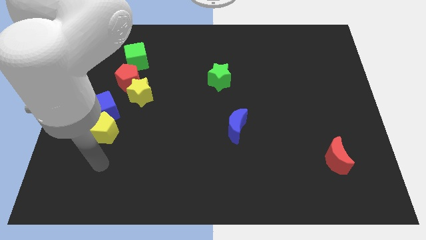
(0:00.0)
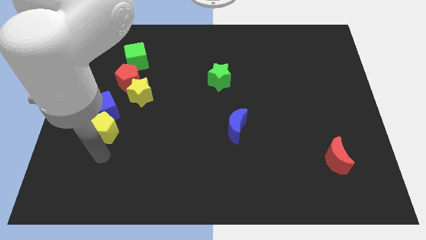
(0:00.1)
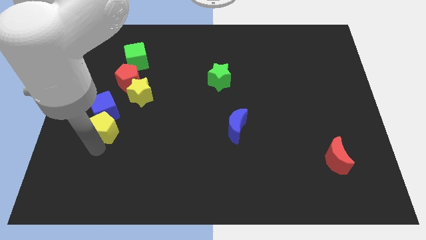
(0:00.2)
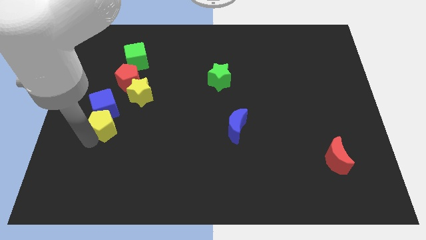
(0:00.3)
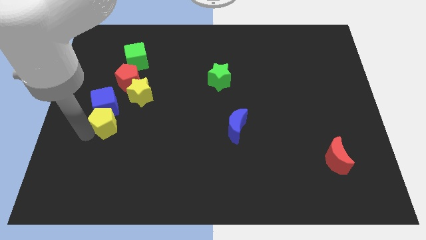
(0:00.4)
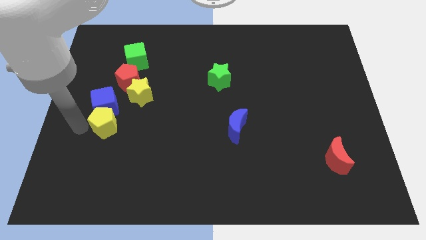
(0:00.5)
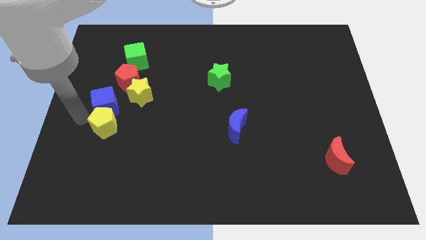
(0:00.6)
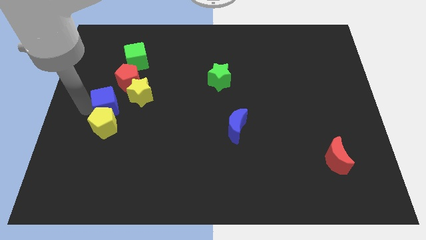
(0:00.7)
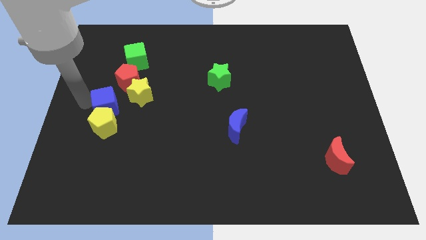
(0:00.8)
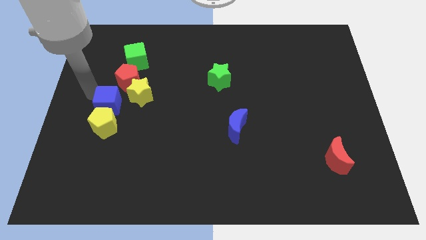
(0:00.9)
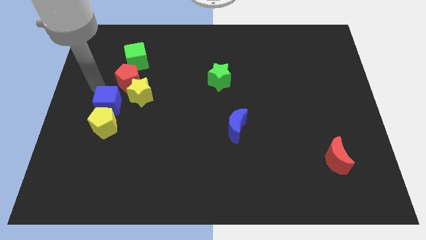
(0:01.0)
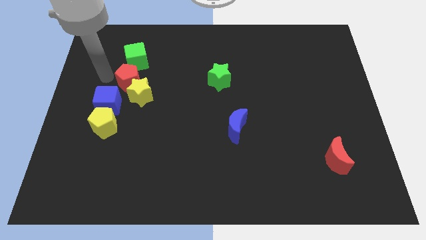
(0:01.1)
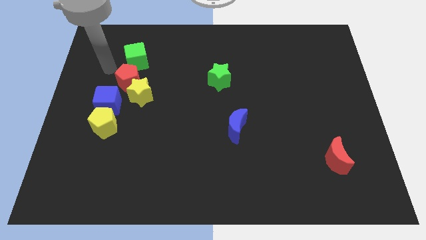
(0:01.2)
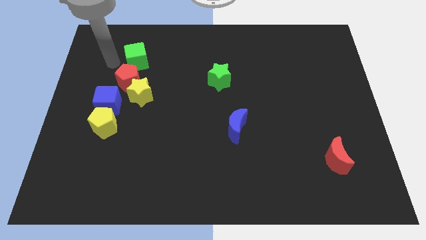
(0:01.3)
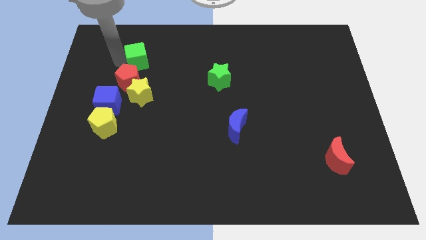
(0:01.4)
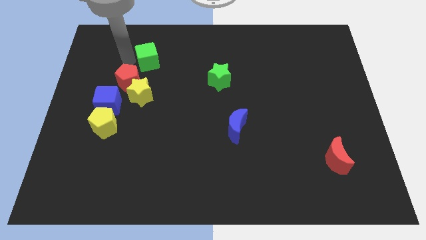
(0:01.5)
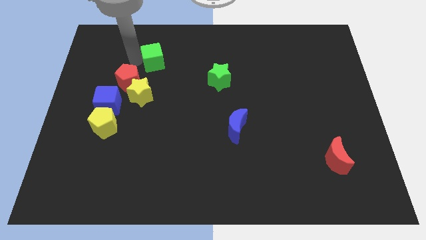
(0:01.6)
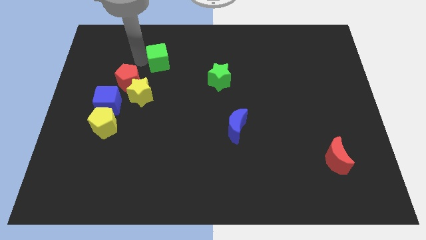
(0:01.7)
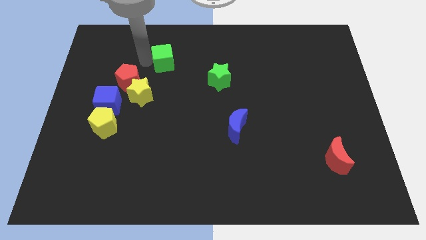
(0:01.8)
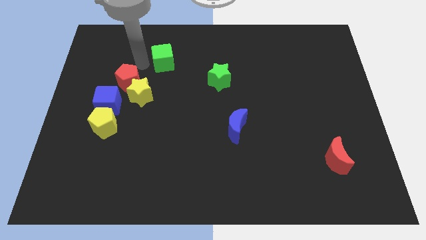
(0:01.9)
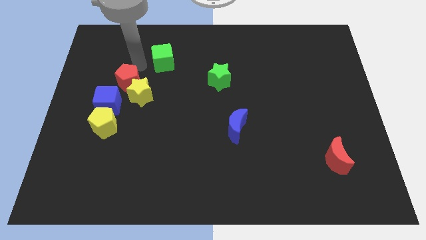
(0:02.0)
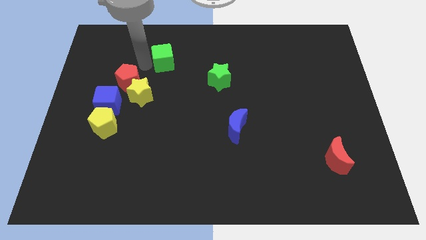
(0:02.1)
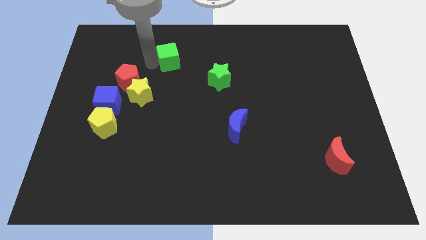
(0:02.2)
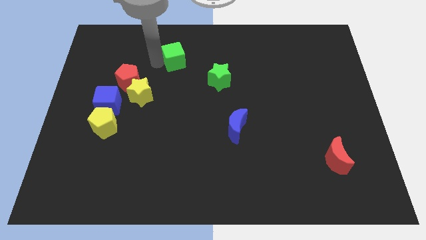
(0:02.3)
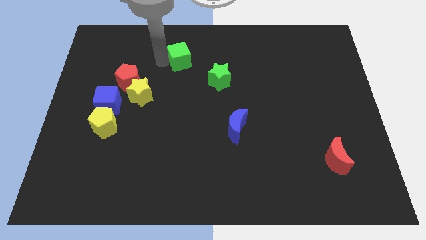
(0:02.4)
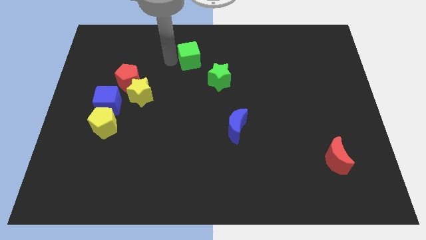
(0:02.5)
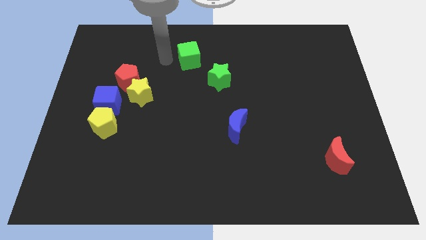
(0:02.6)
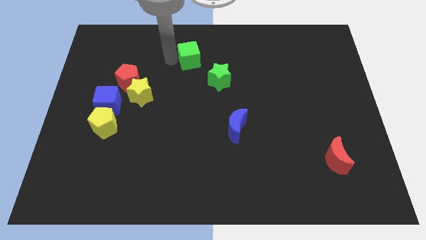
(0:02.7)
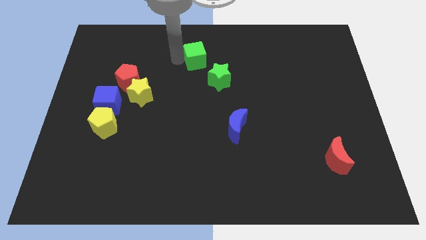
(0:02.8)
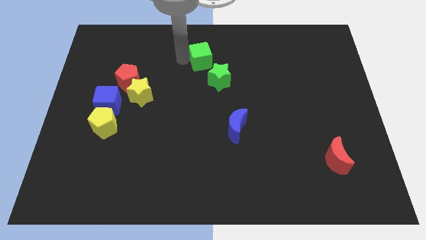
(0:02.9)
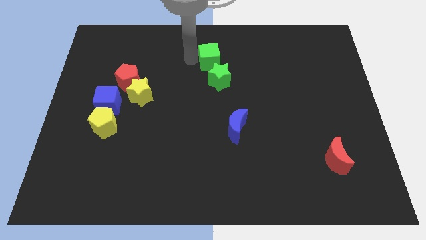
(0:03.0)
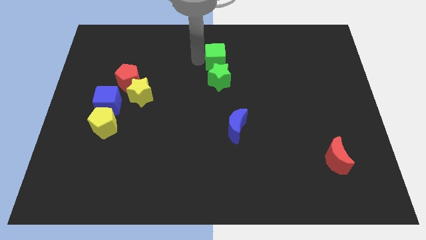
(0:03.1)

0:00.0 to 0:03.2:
push the green cube to the right

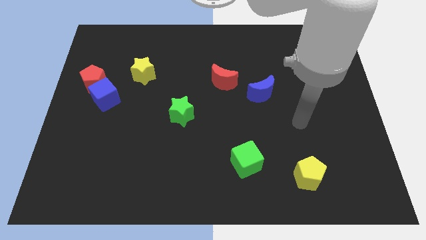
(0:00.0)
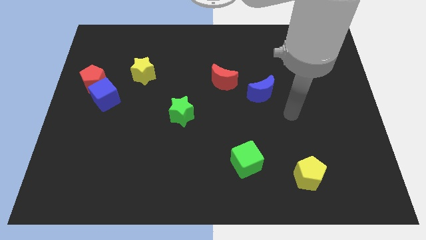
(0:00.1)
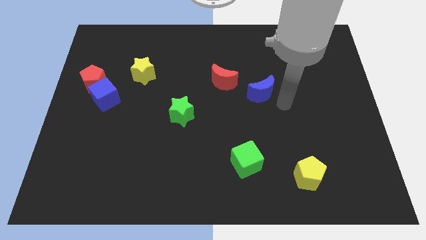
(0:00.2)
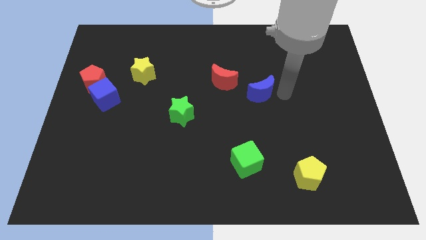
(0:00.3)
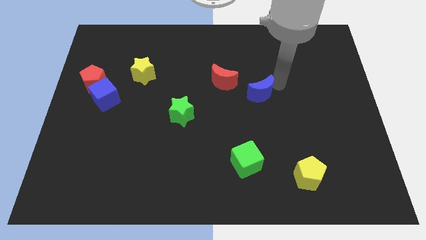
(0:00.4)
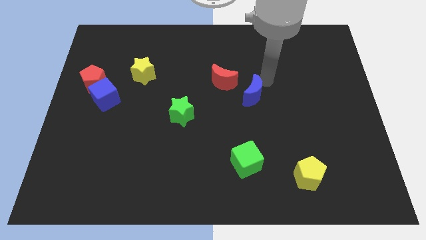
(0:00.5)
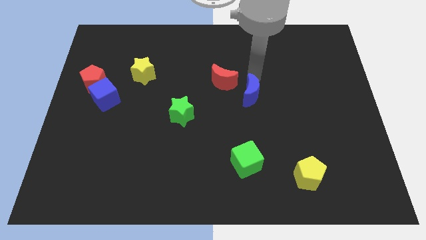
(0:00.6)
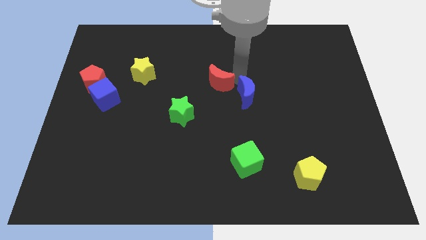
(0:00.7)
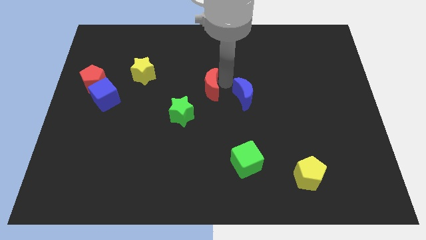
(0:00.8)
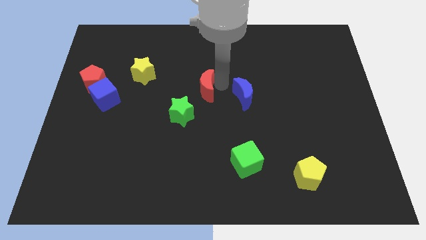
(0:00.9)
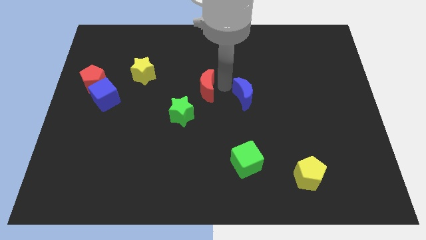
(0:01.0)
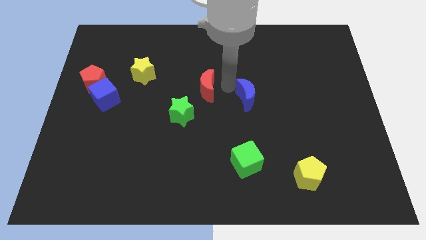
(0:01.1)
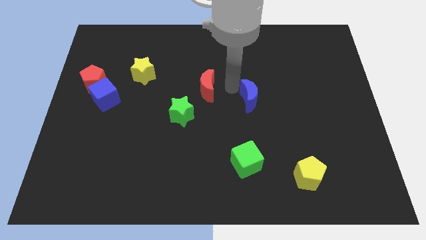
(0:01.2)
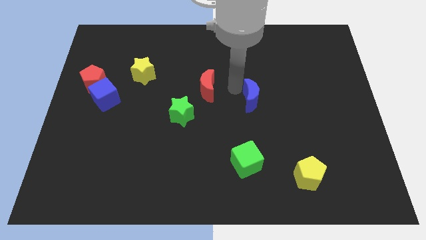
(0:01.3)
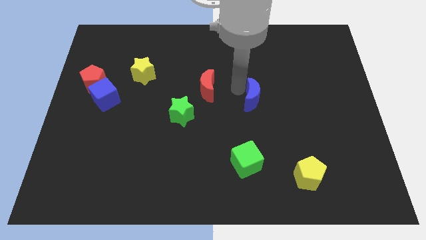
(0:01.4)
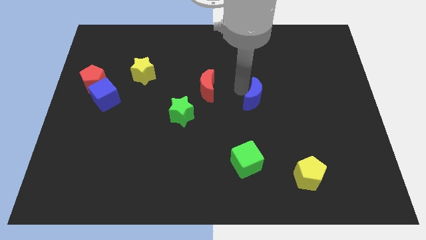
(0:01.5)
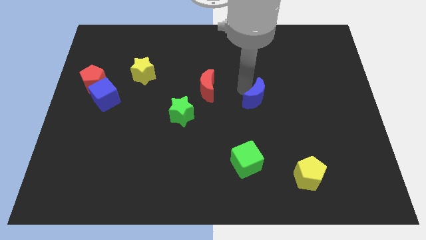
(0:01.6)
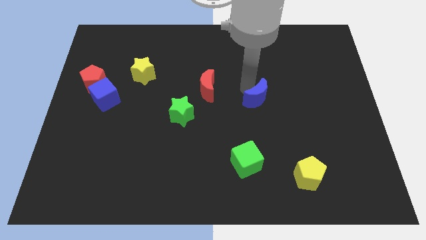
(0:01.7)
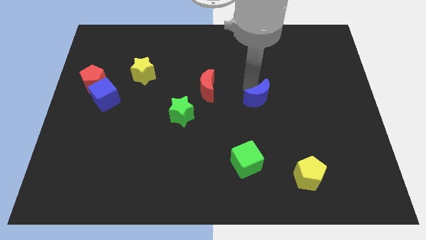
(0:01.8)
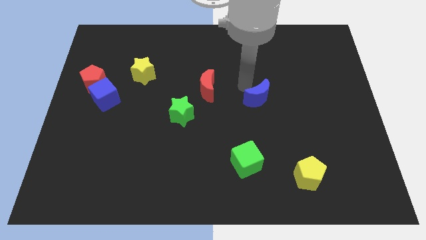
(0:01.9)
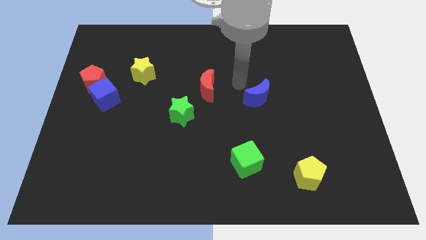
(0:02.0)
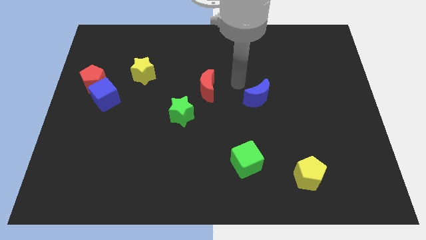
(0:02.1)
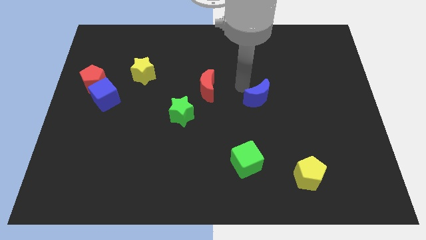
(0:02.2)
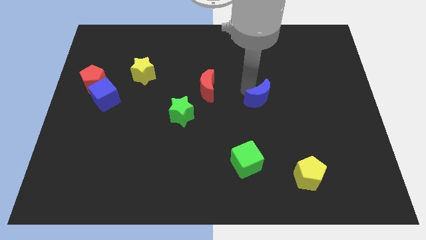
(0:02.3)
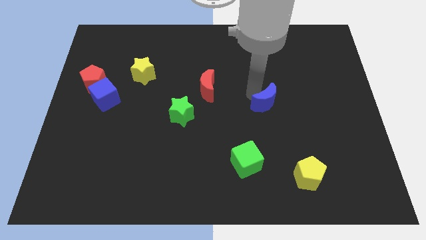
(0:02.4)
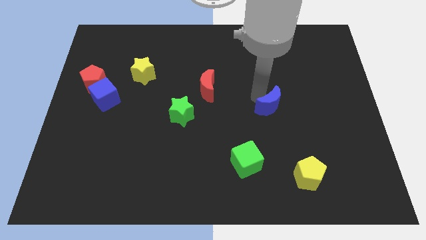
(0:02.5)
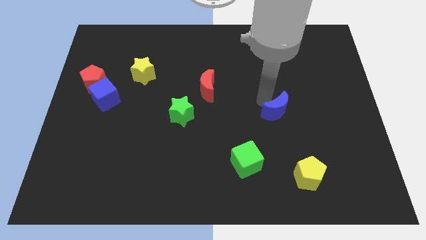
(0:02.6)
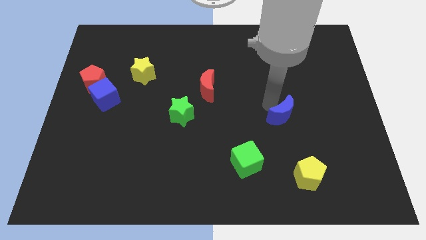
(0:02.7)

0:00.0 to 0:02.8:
push the blue moon diagonally downwards and right a little bit

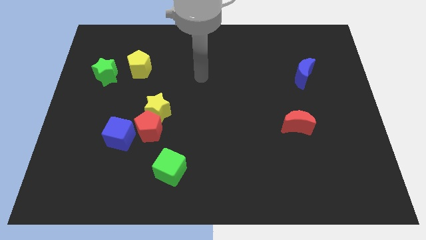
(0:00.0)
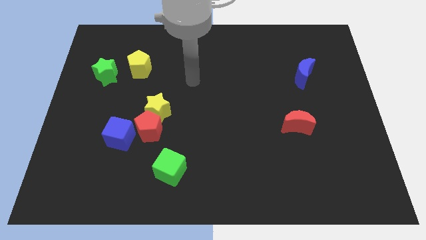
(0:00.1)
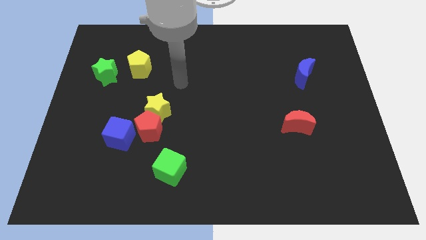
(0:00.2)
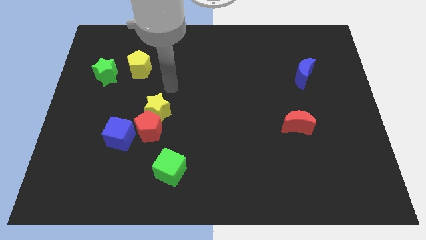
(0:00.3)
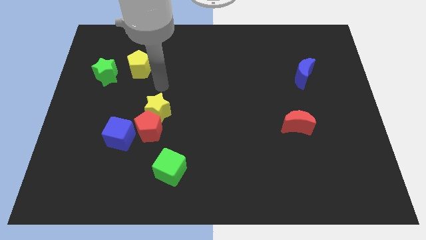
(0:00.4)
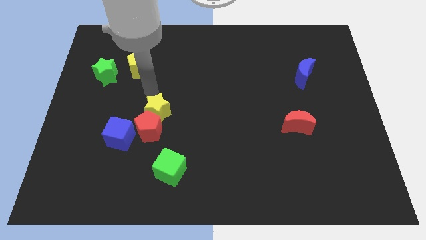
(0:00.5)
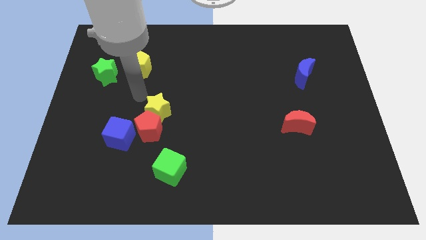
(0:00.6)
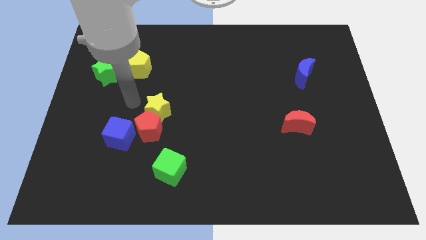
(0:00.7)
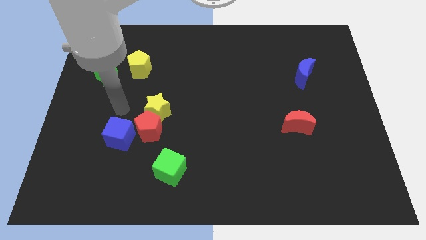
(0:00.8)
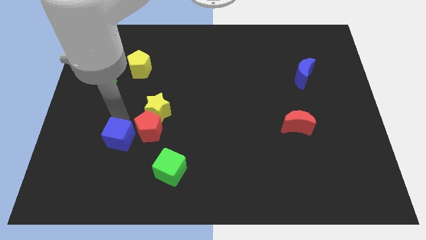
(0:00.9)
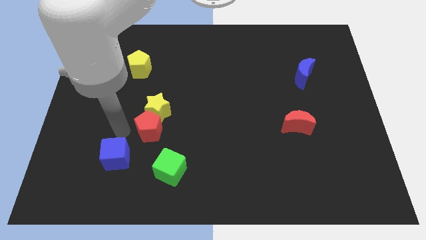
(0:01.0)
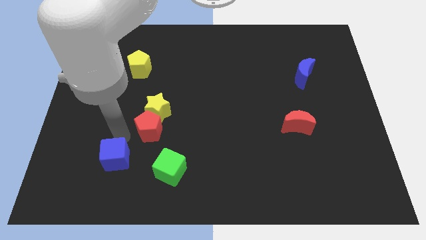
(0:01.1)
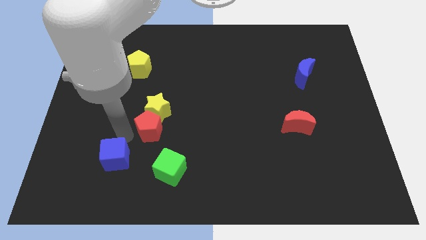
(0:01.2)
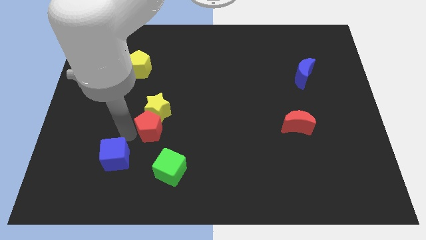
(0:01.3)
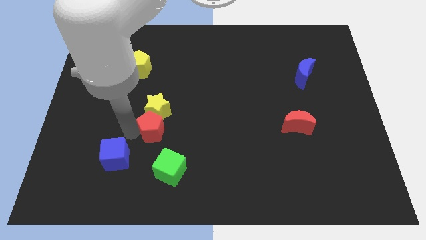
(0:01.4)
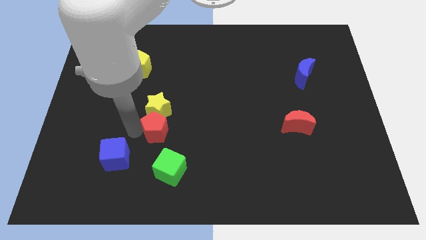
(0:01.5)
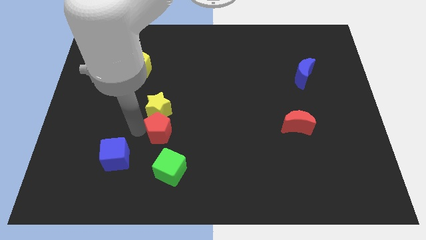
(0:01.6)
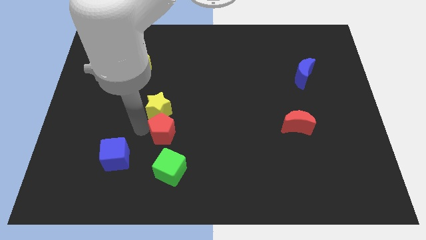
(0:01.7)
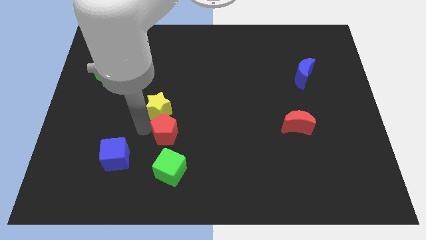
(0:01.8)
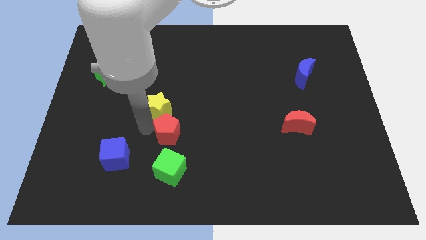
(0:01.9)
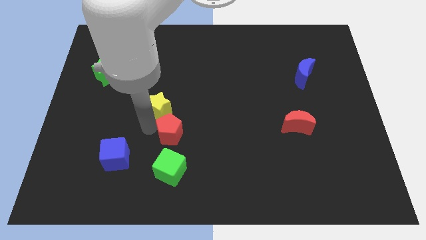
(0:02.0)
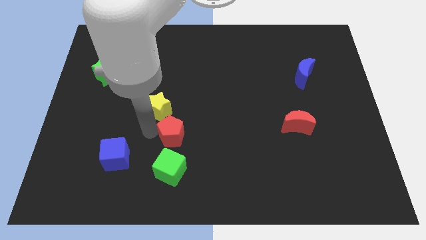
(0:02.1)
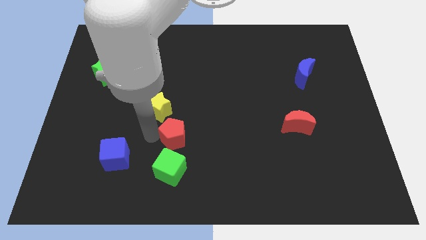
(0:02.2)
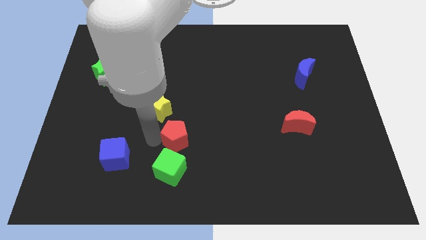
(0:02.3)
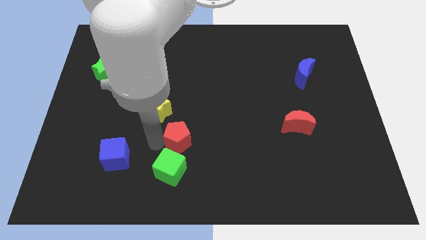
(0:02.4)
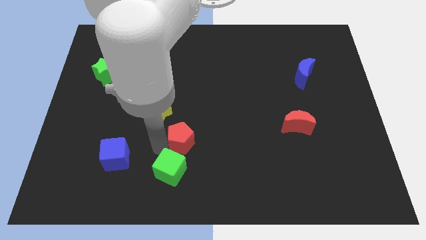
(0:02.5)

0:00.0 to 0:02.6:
push the red pentagon a little to the right

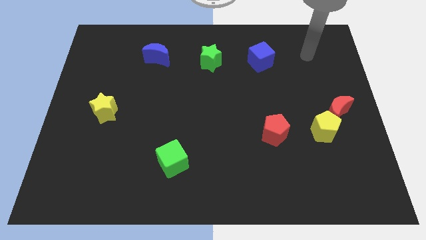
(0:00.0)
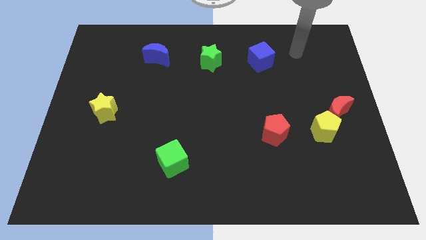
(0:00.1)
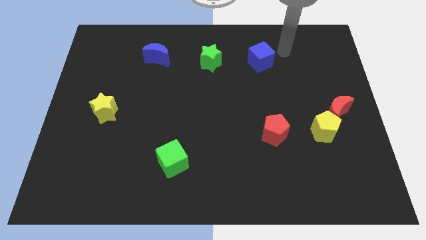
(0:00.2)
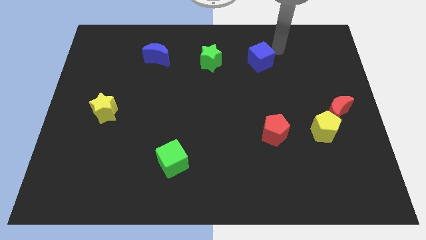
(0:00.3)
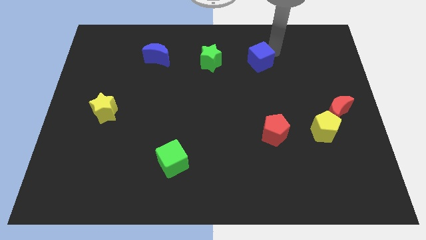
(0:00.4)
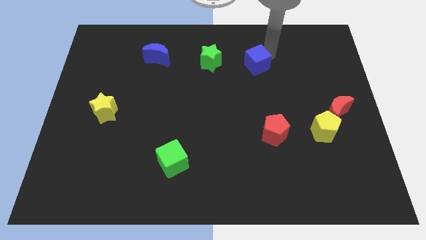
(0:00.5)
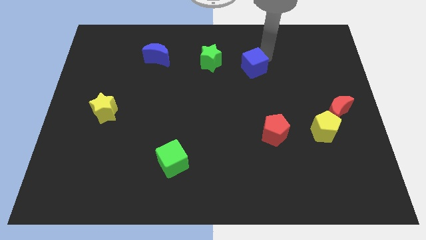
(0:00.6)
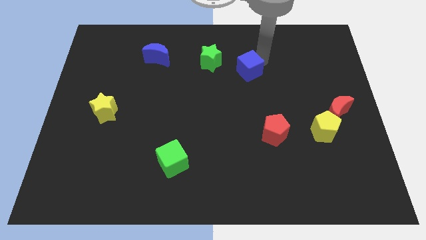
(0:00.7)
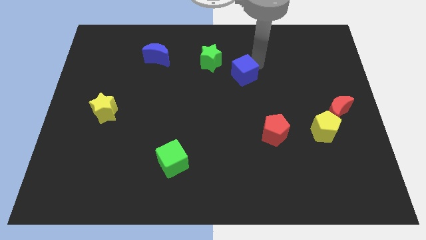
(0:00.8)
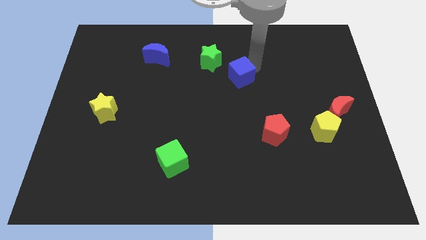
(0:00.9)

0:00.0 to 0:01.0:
slightly slide the blue cube downwards and then to the left
